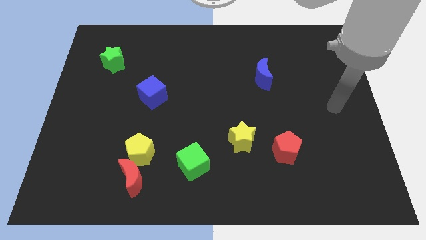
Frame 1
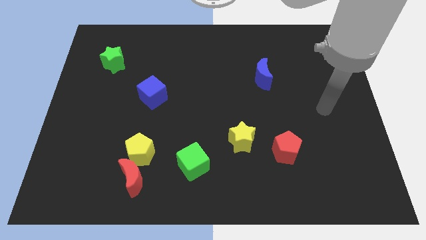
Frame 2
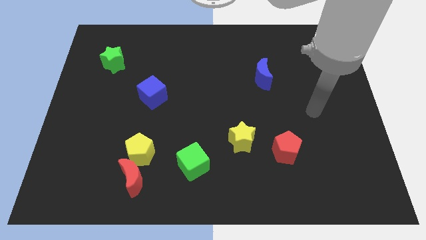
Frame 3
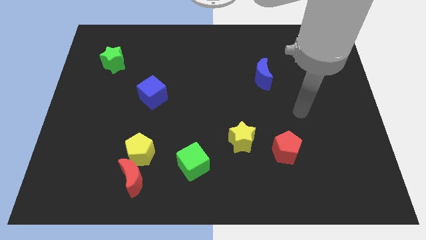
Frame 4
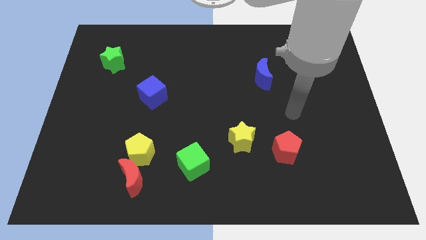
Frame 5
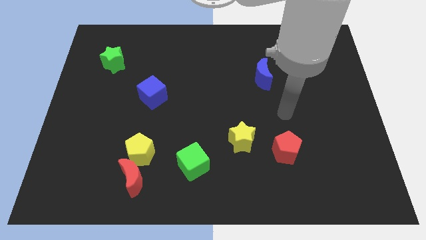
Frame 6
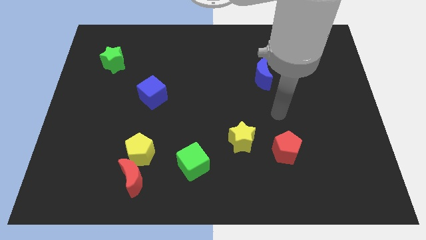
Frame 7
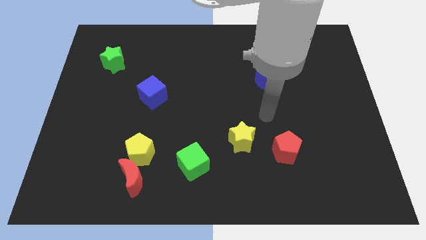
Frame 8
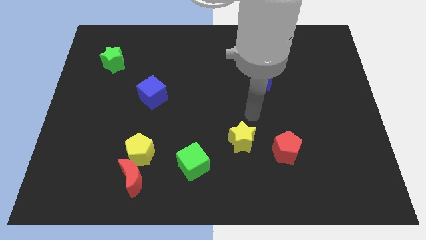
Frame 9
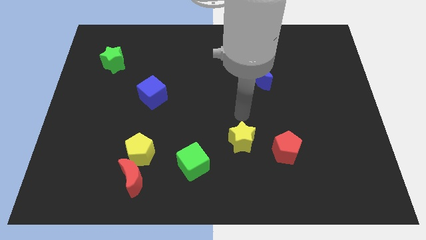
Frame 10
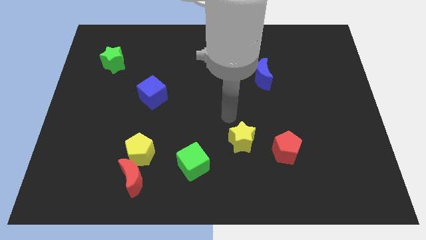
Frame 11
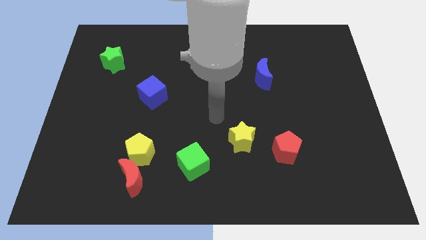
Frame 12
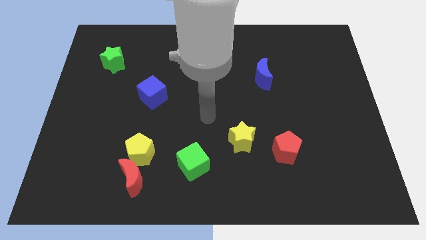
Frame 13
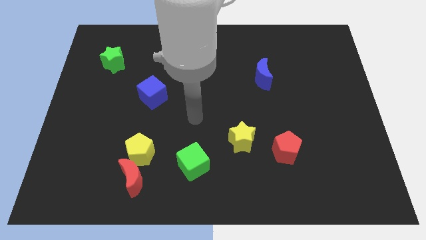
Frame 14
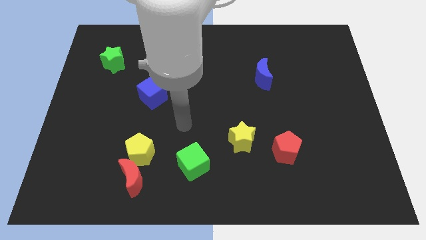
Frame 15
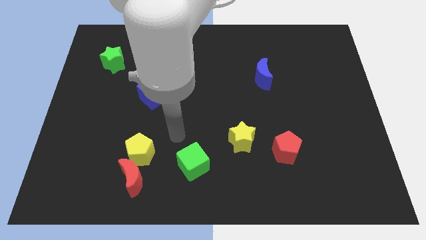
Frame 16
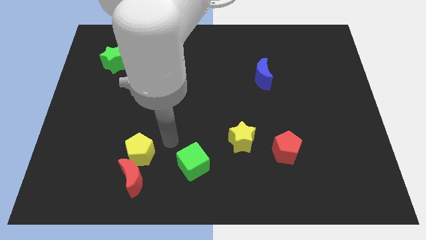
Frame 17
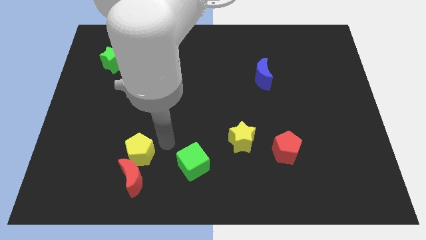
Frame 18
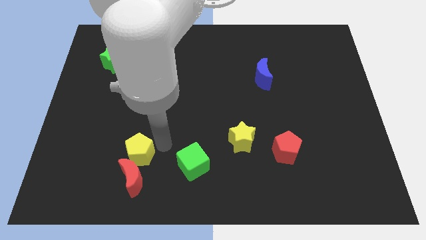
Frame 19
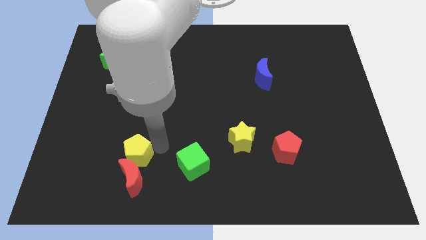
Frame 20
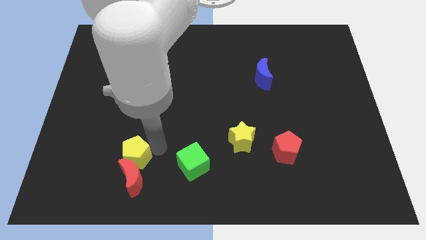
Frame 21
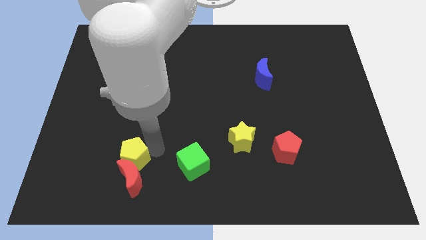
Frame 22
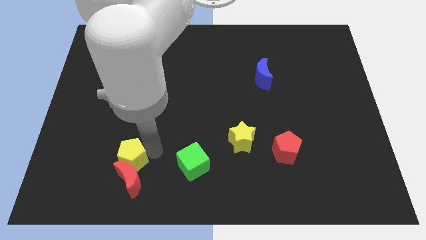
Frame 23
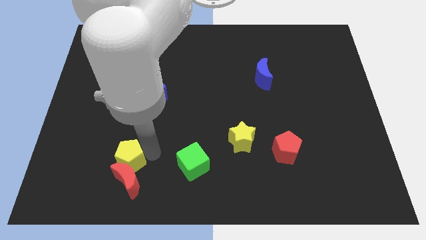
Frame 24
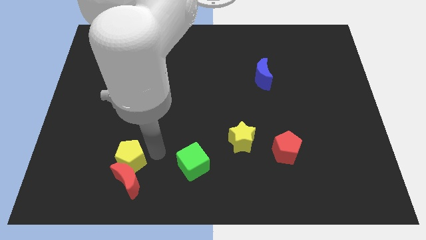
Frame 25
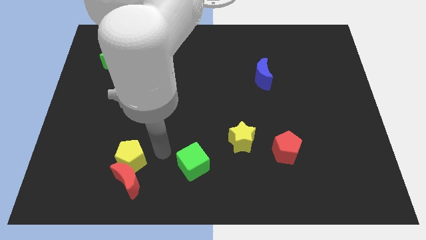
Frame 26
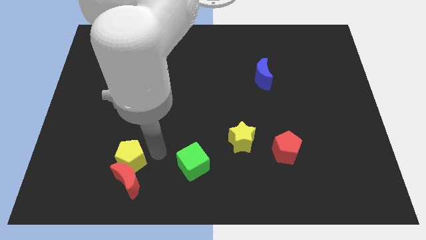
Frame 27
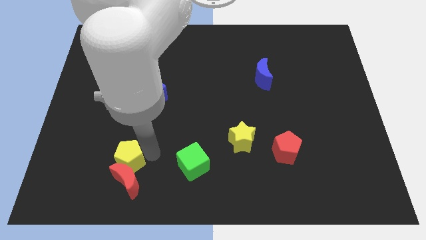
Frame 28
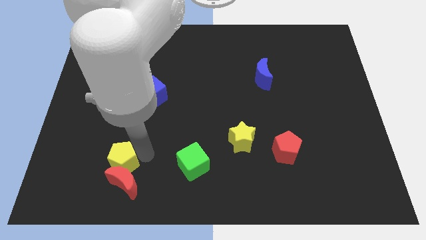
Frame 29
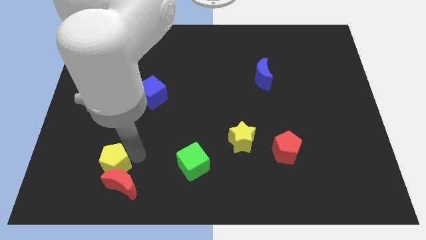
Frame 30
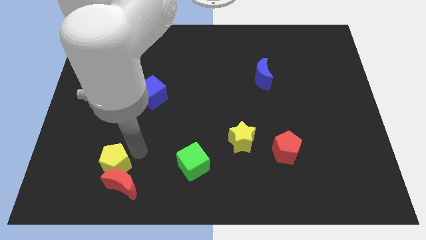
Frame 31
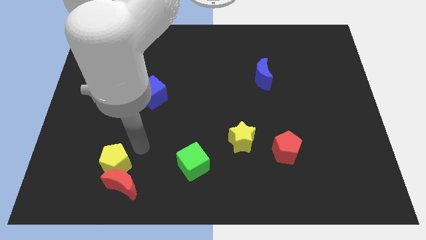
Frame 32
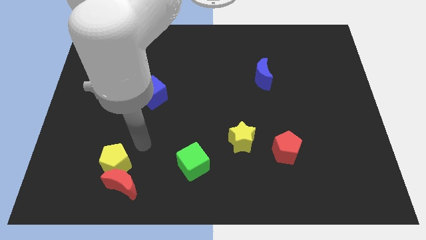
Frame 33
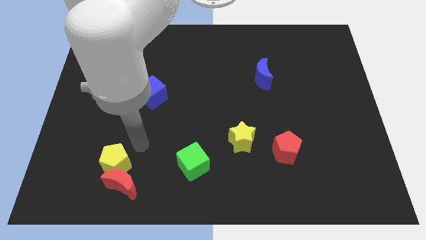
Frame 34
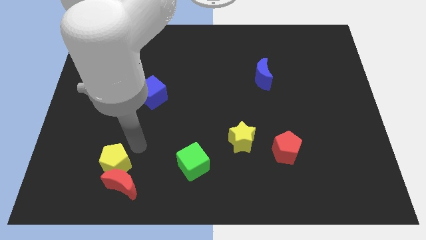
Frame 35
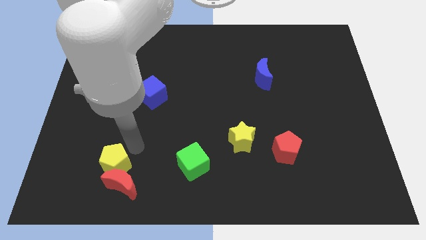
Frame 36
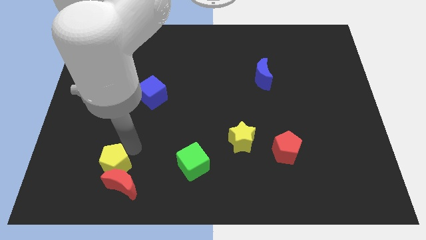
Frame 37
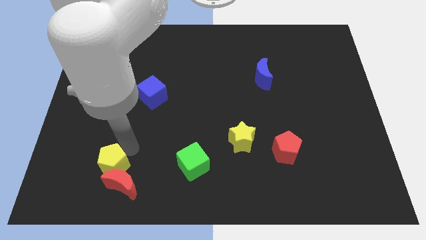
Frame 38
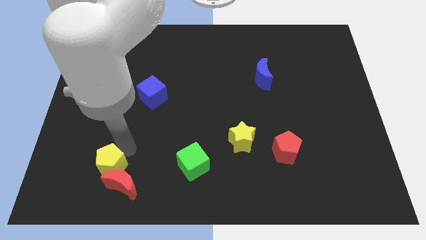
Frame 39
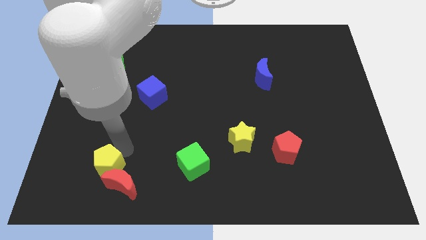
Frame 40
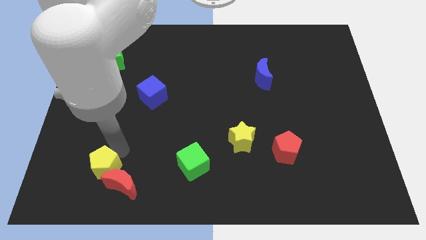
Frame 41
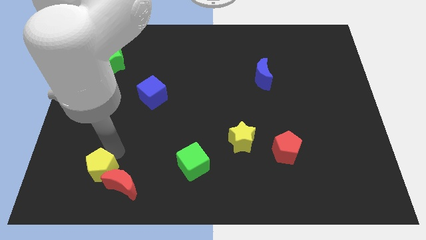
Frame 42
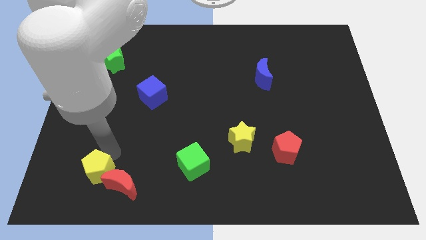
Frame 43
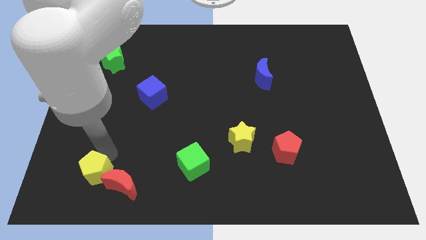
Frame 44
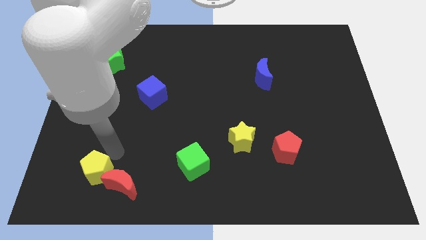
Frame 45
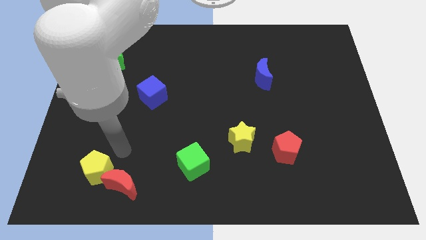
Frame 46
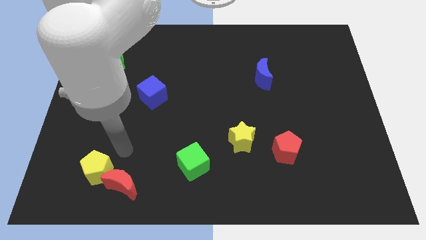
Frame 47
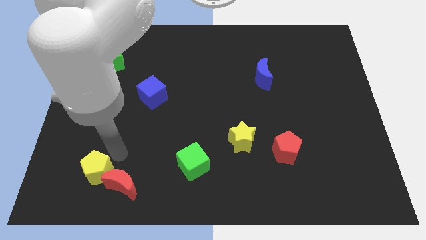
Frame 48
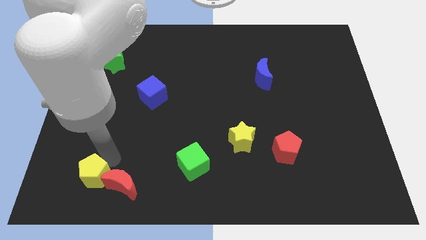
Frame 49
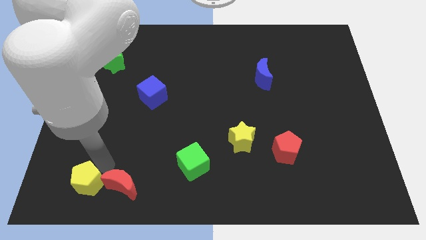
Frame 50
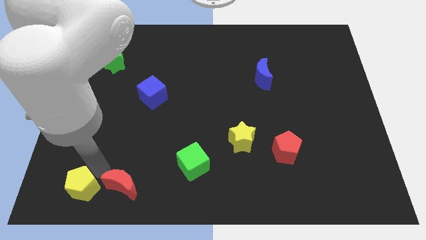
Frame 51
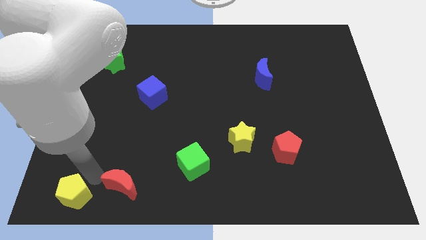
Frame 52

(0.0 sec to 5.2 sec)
move the yellow pentagon to the bottom left corner

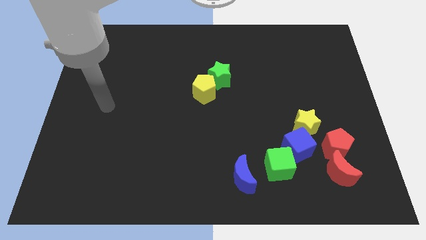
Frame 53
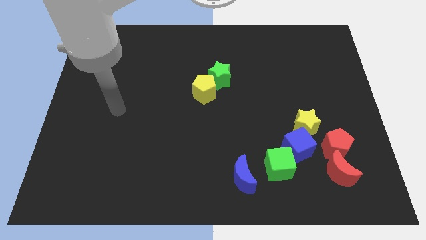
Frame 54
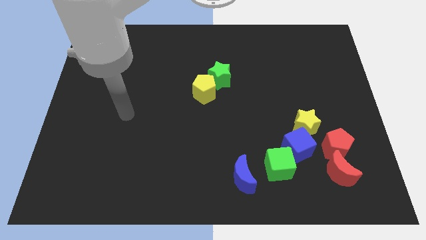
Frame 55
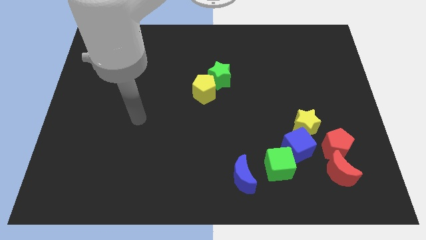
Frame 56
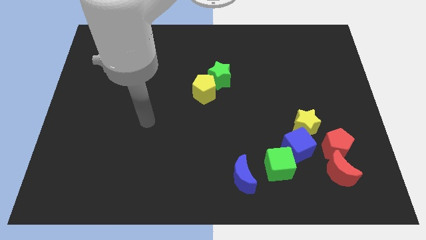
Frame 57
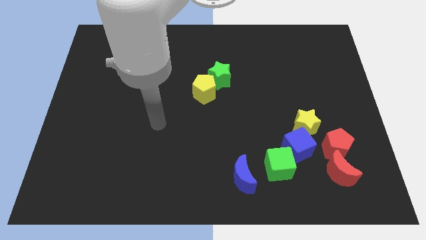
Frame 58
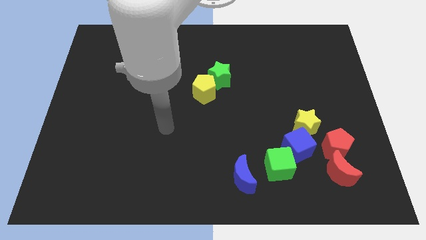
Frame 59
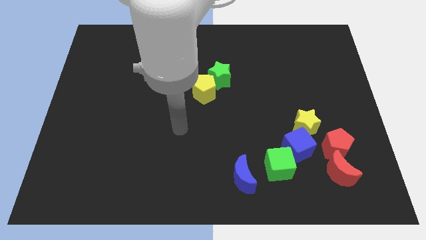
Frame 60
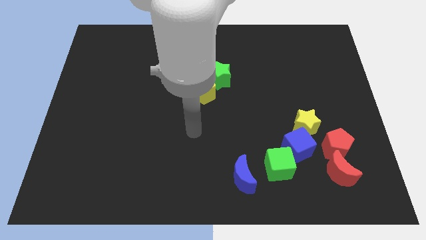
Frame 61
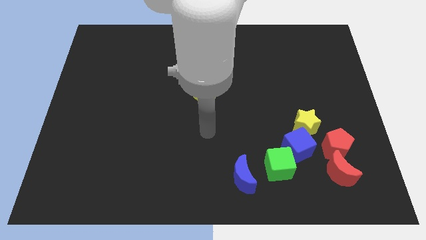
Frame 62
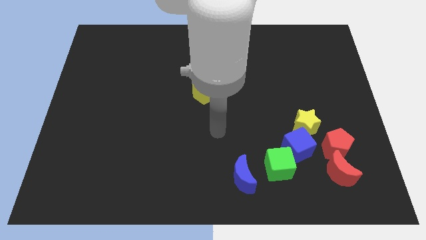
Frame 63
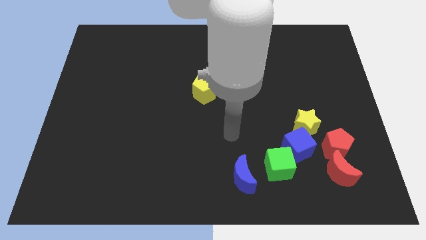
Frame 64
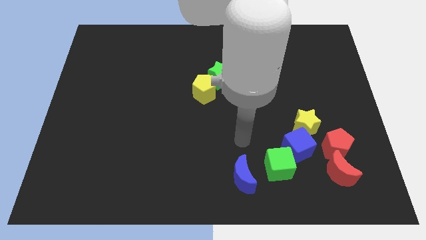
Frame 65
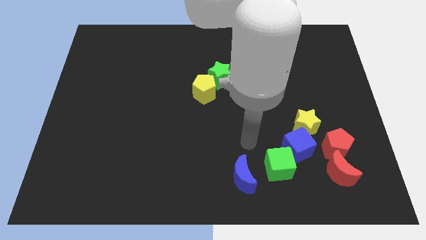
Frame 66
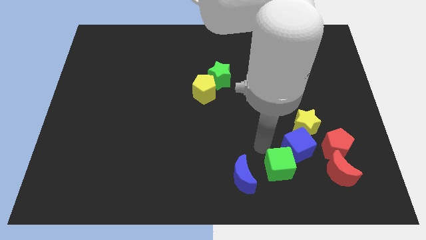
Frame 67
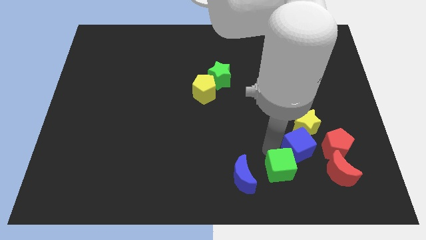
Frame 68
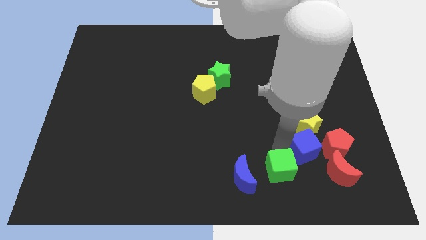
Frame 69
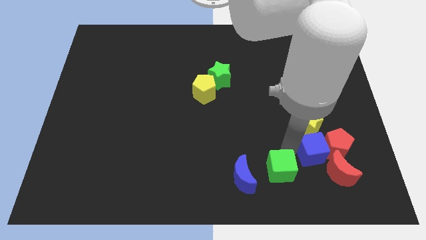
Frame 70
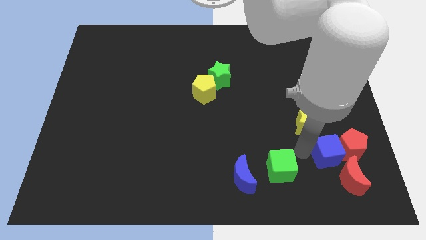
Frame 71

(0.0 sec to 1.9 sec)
put the red moon to the bottom right
